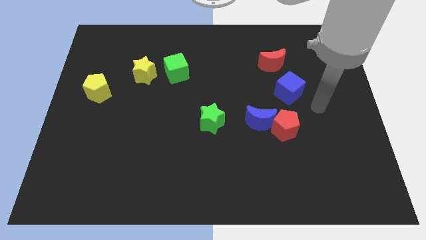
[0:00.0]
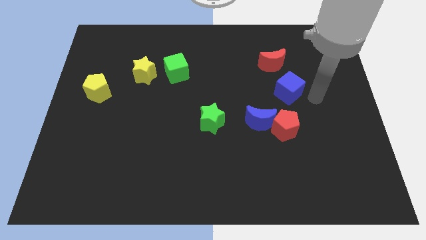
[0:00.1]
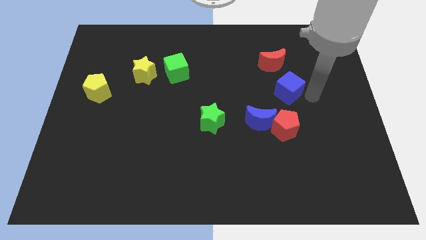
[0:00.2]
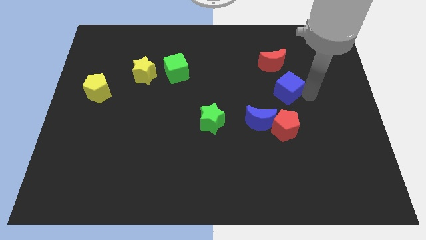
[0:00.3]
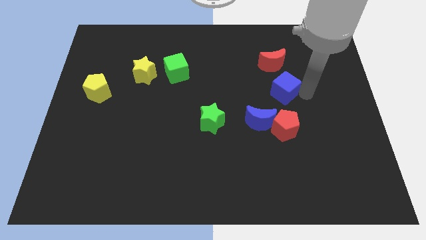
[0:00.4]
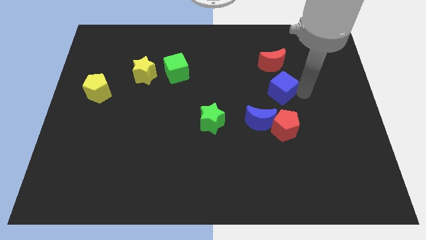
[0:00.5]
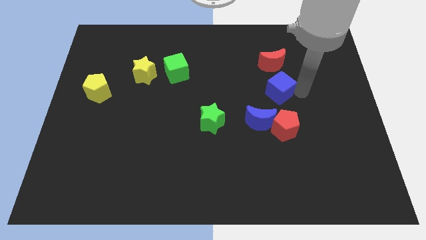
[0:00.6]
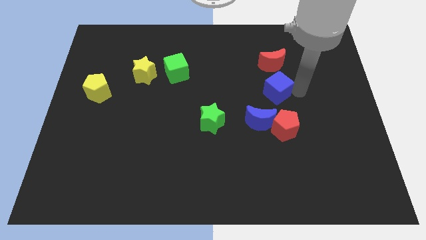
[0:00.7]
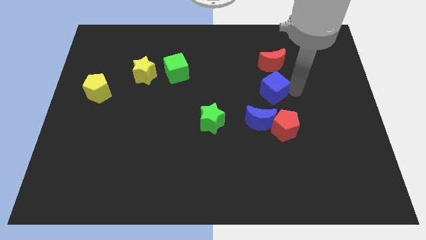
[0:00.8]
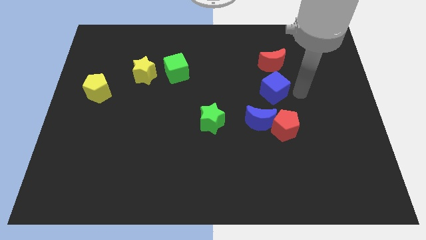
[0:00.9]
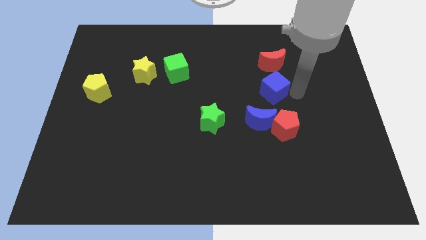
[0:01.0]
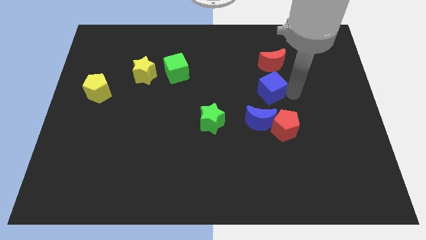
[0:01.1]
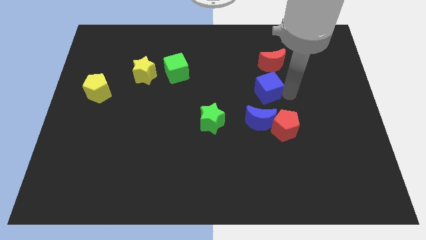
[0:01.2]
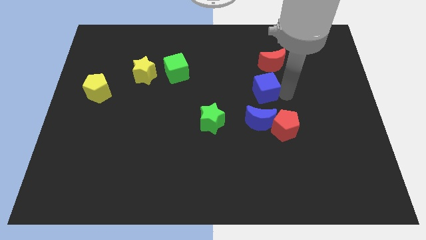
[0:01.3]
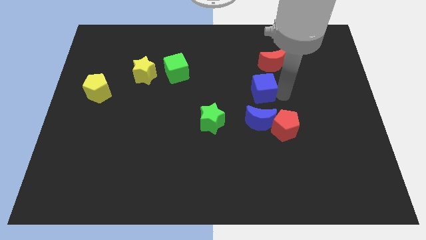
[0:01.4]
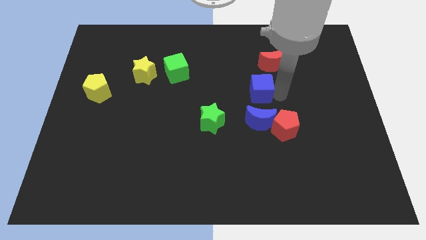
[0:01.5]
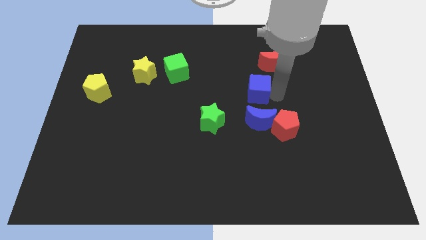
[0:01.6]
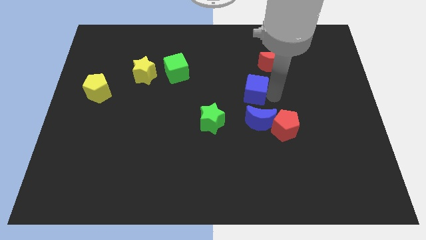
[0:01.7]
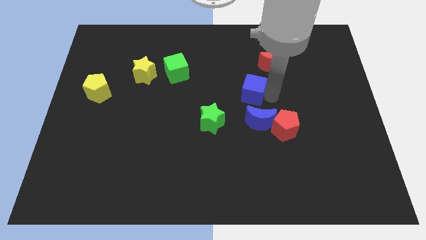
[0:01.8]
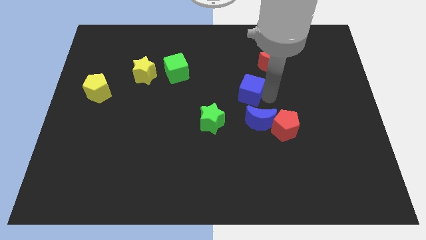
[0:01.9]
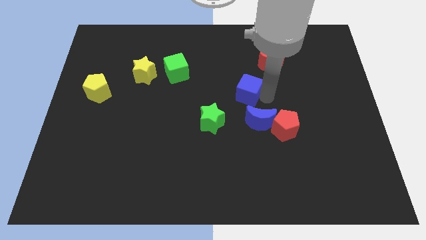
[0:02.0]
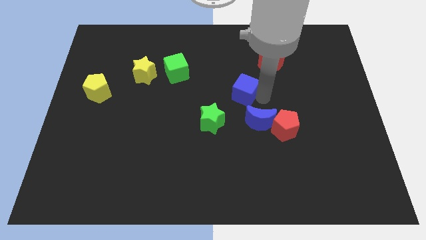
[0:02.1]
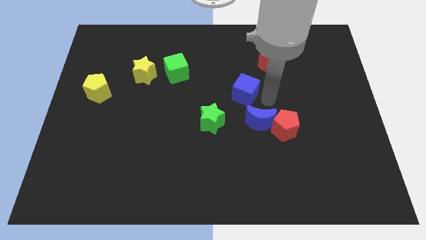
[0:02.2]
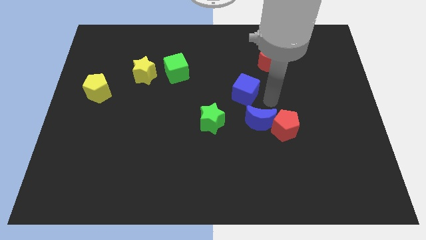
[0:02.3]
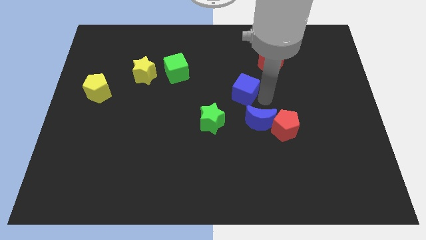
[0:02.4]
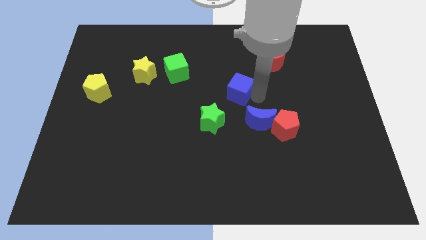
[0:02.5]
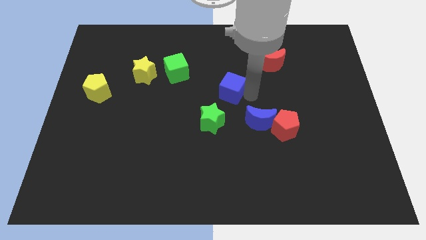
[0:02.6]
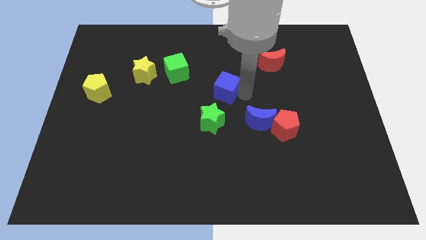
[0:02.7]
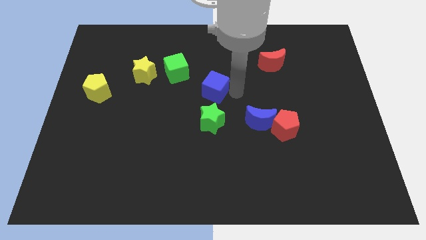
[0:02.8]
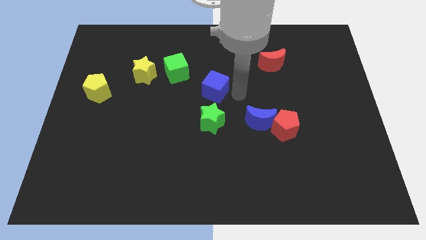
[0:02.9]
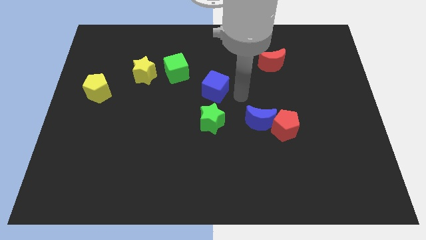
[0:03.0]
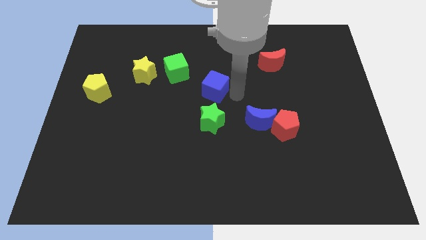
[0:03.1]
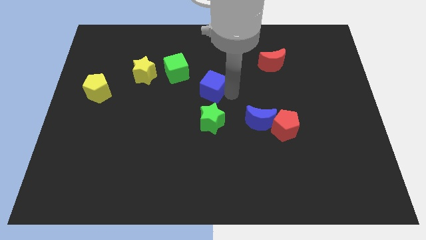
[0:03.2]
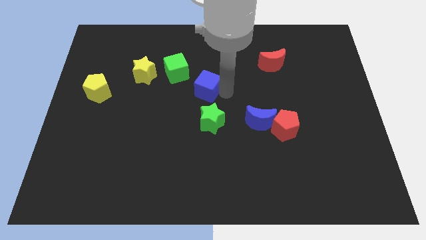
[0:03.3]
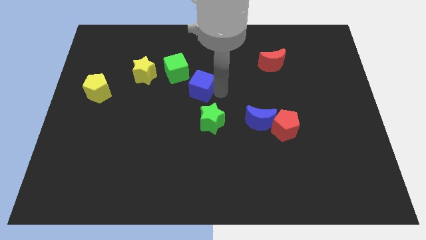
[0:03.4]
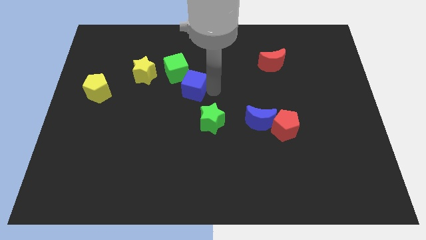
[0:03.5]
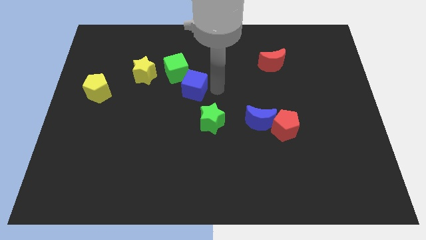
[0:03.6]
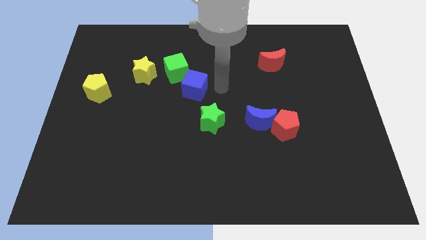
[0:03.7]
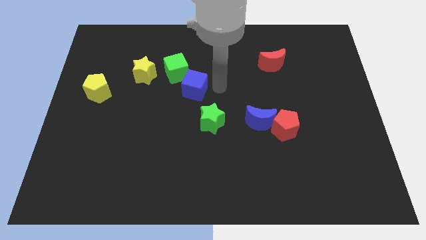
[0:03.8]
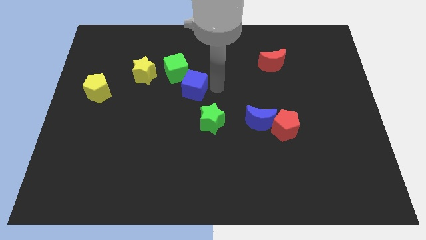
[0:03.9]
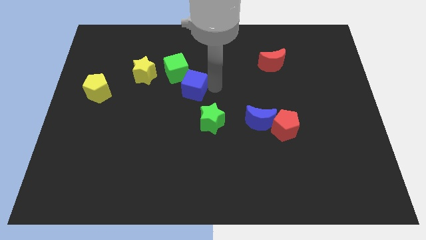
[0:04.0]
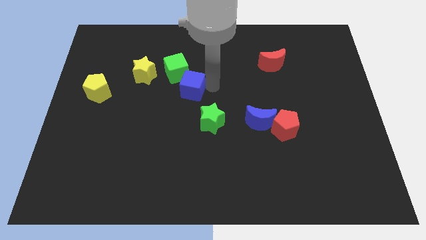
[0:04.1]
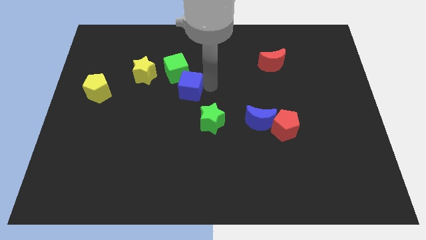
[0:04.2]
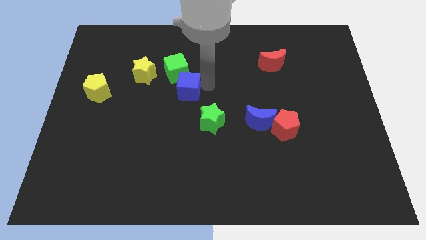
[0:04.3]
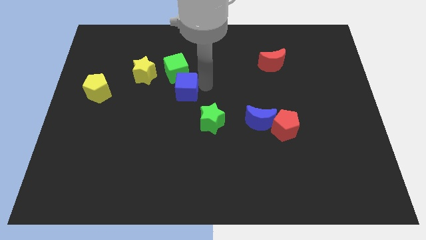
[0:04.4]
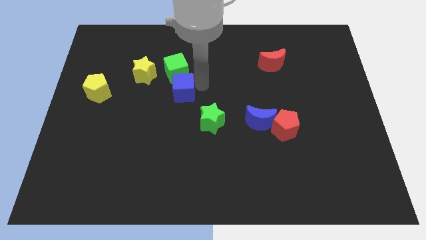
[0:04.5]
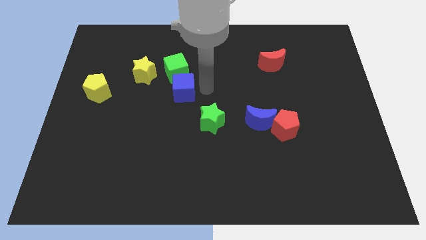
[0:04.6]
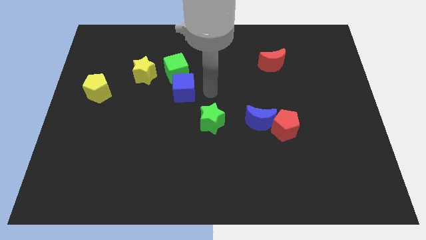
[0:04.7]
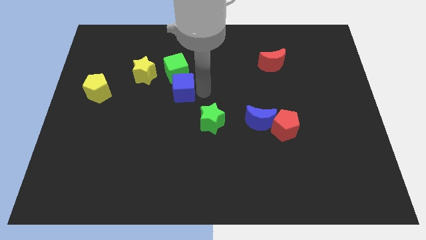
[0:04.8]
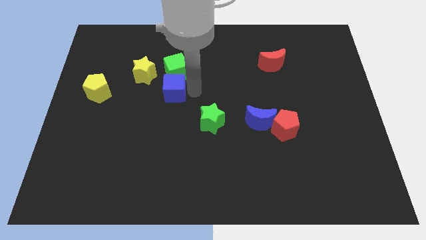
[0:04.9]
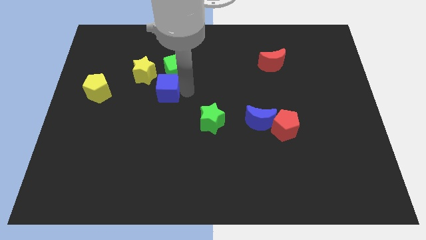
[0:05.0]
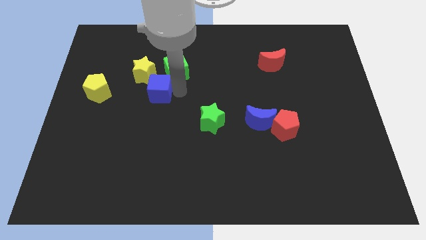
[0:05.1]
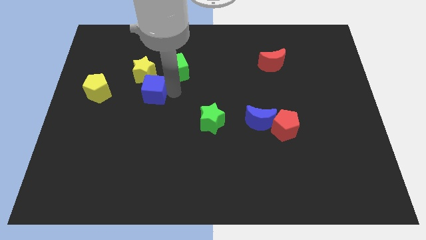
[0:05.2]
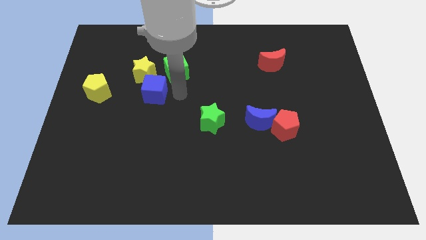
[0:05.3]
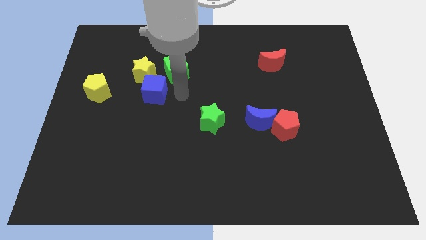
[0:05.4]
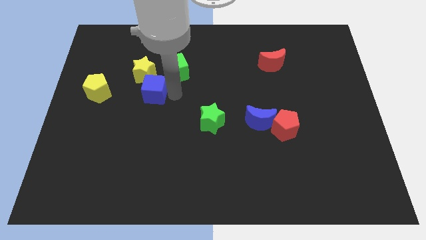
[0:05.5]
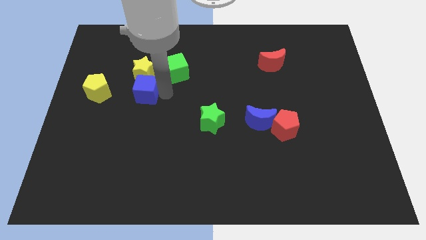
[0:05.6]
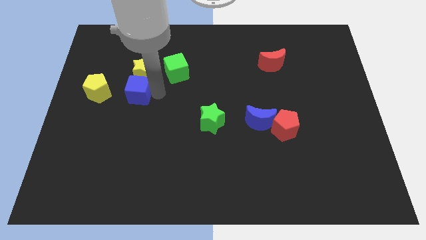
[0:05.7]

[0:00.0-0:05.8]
put the blue cube to the bottom left side of the yellow star
